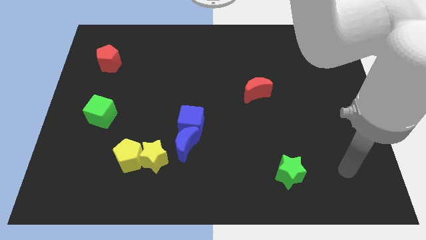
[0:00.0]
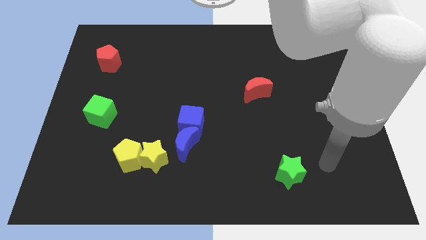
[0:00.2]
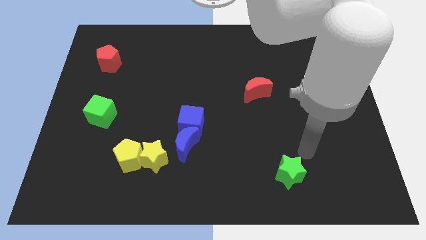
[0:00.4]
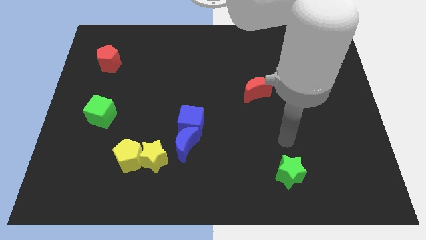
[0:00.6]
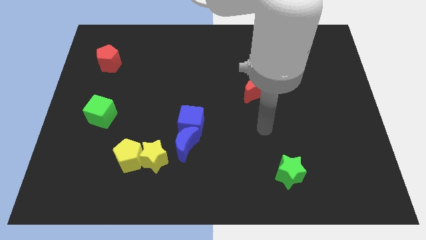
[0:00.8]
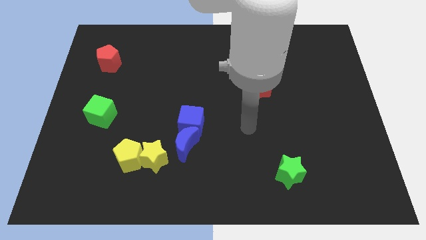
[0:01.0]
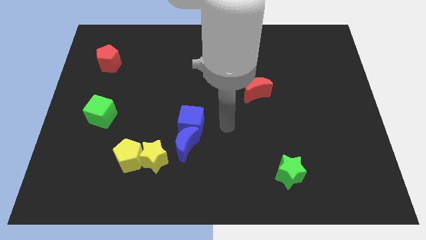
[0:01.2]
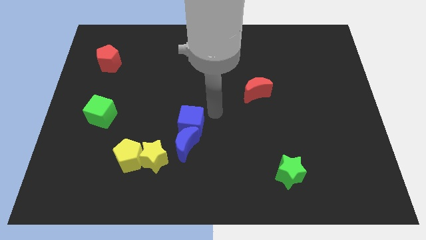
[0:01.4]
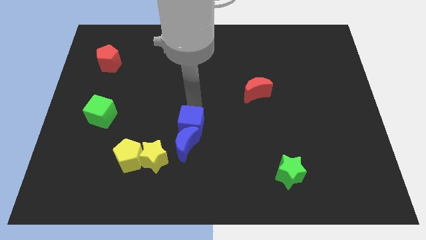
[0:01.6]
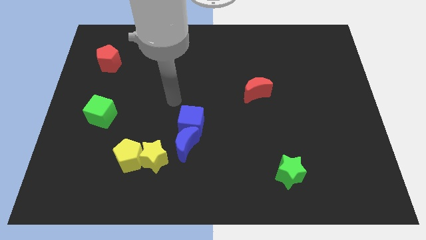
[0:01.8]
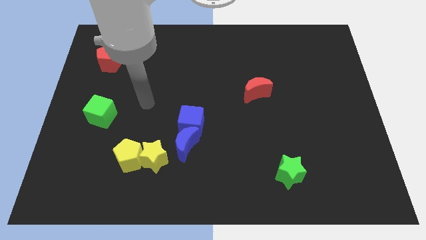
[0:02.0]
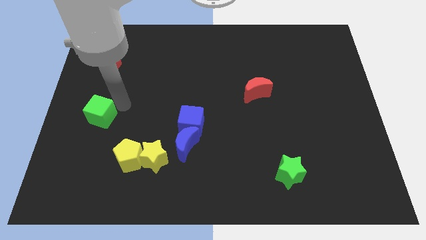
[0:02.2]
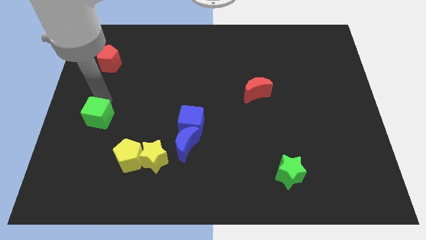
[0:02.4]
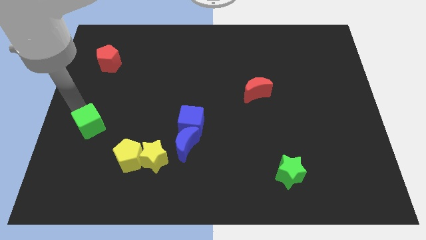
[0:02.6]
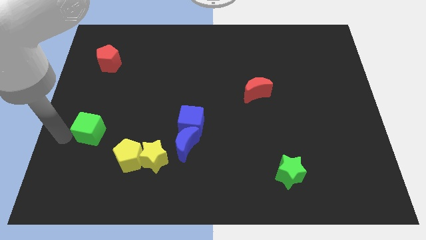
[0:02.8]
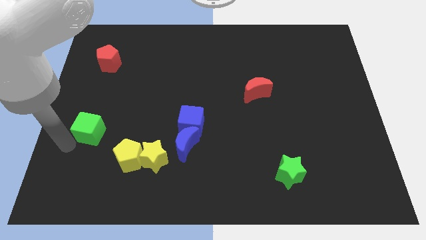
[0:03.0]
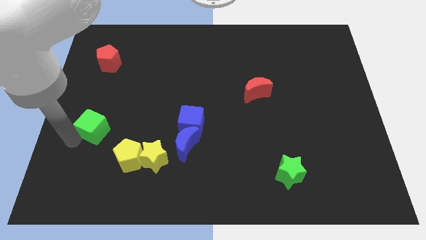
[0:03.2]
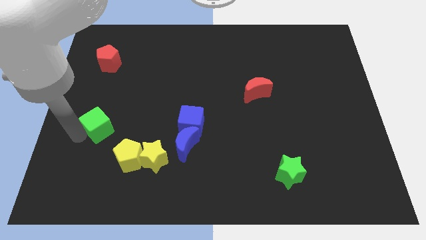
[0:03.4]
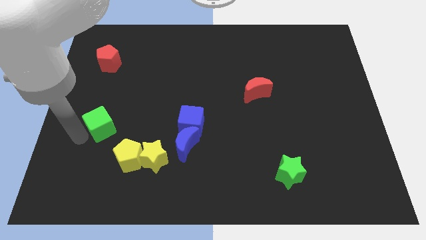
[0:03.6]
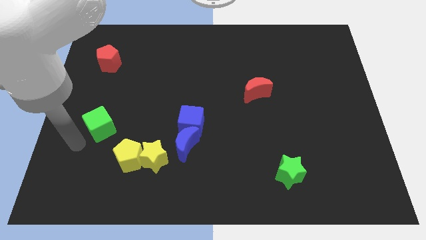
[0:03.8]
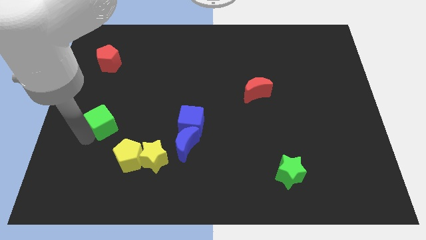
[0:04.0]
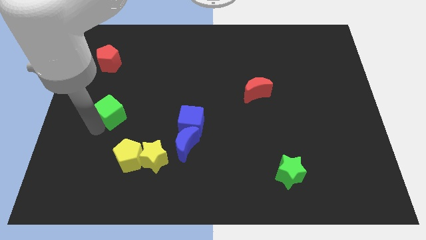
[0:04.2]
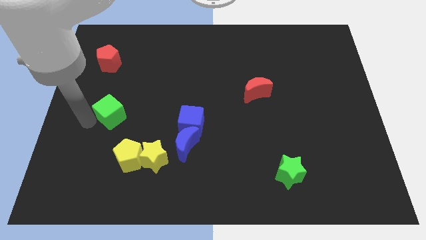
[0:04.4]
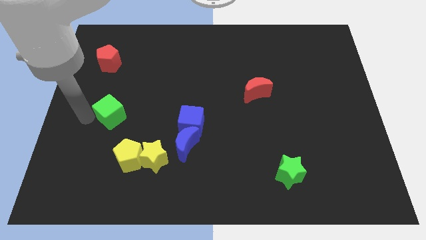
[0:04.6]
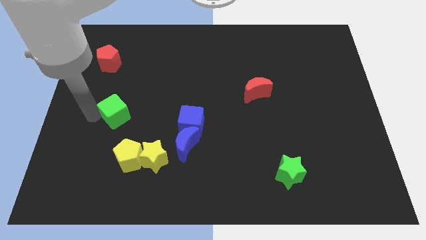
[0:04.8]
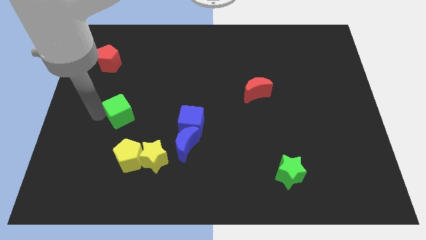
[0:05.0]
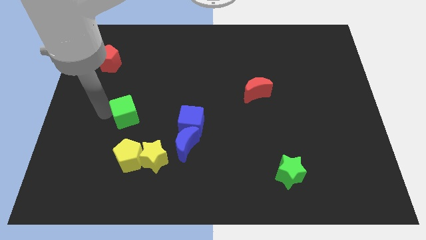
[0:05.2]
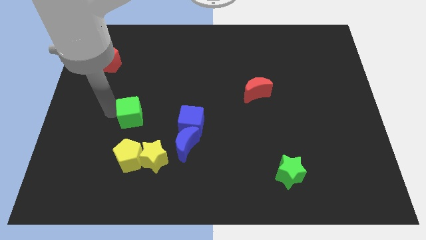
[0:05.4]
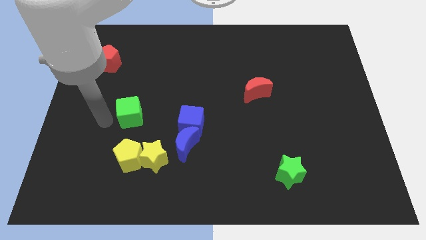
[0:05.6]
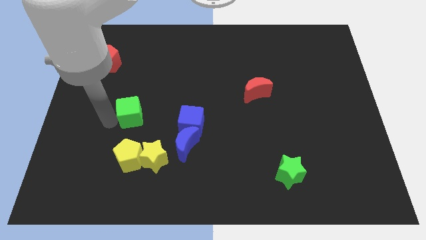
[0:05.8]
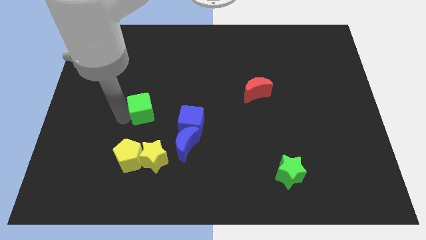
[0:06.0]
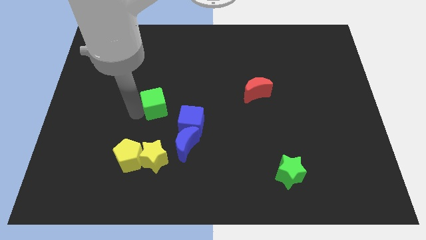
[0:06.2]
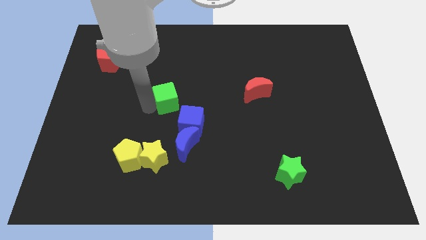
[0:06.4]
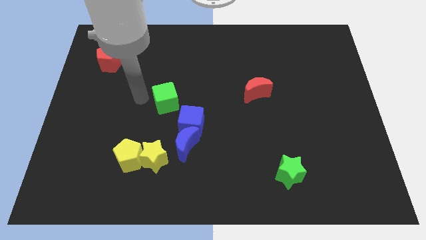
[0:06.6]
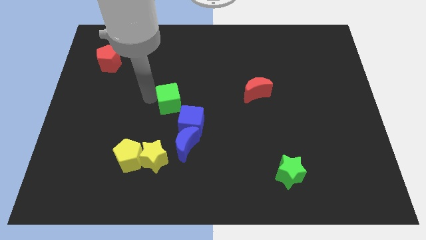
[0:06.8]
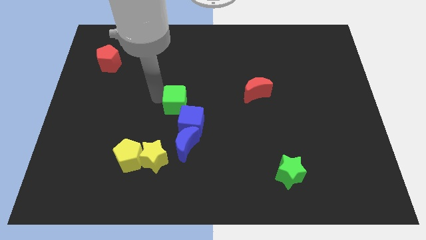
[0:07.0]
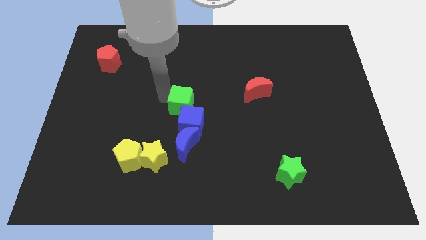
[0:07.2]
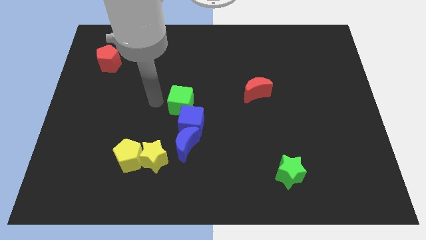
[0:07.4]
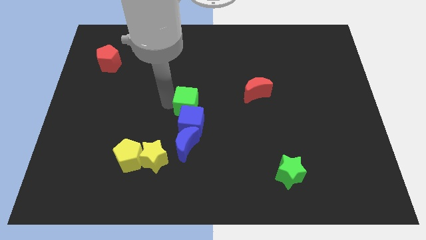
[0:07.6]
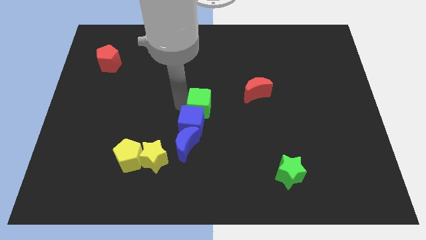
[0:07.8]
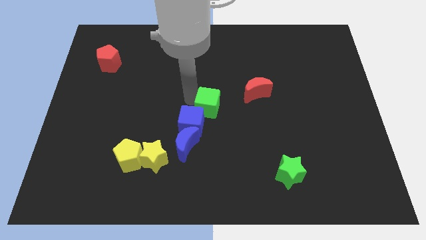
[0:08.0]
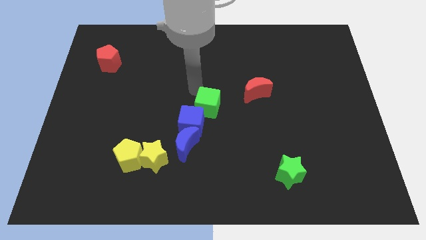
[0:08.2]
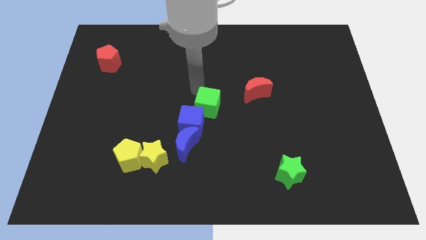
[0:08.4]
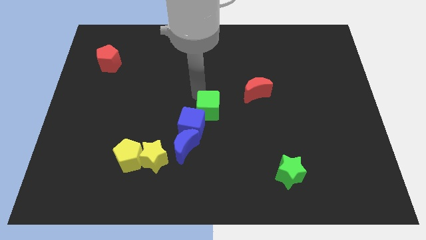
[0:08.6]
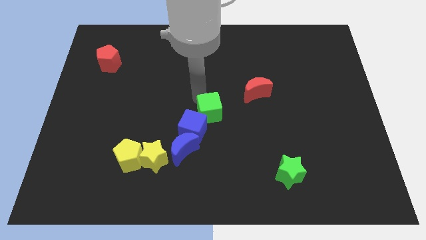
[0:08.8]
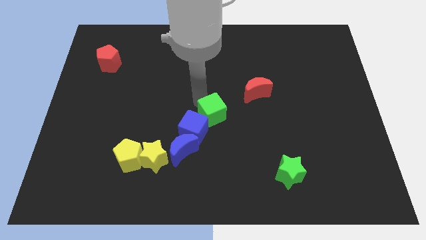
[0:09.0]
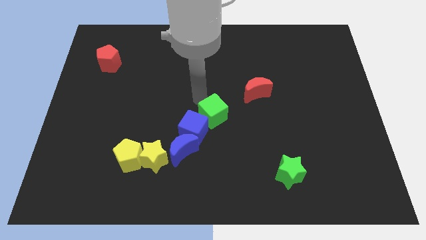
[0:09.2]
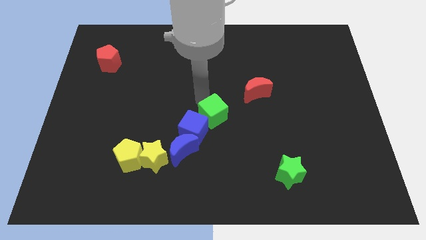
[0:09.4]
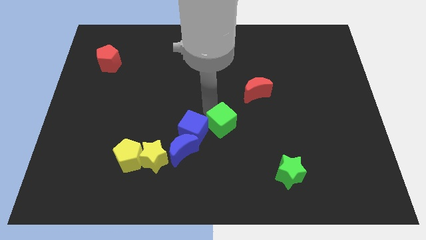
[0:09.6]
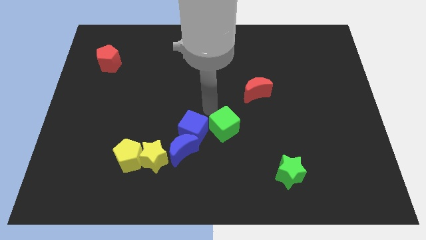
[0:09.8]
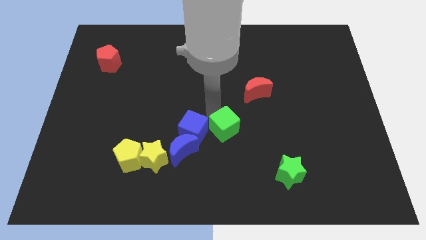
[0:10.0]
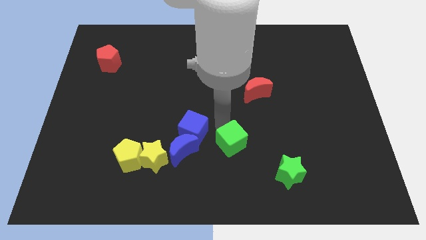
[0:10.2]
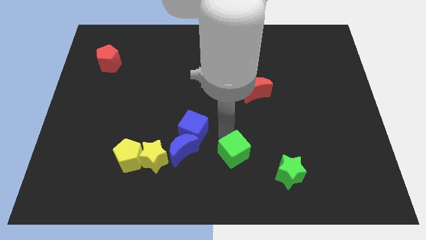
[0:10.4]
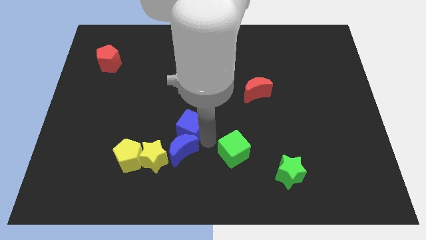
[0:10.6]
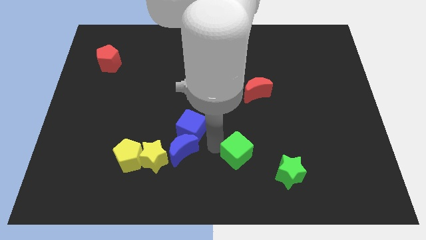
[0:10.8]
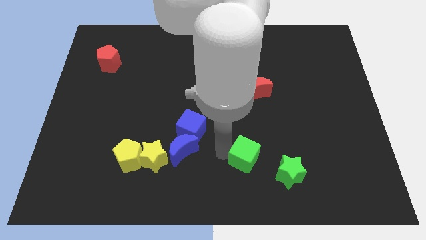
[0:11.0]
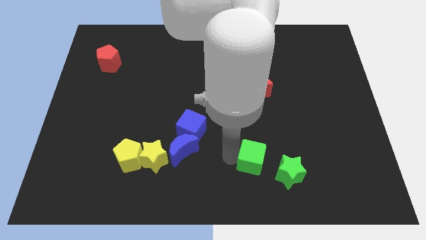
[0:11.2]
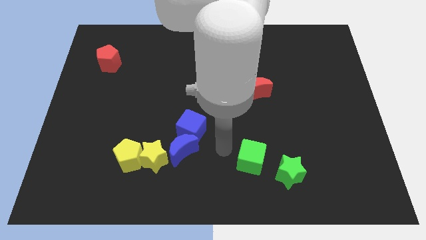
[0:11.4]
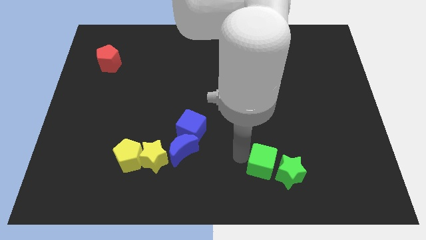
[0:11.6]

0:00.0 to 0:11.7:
put the green cube to the green star

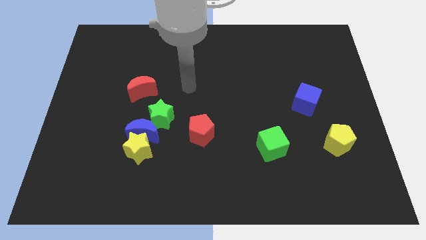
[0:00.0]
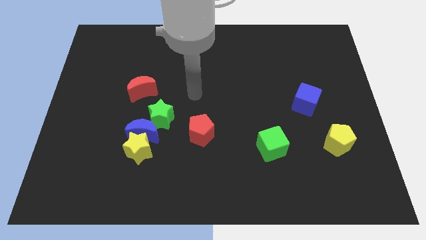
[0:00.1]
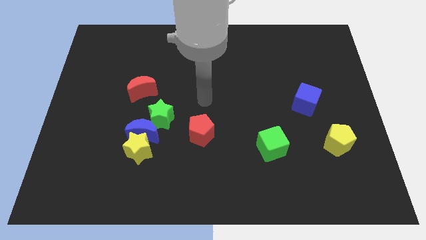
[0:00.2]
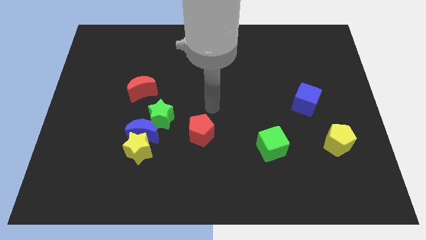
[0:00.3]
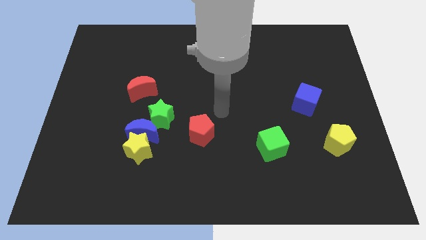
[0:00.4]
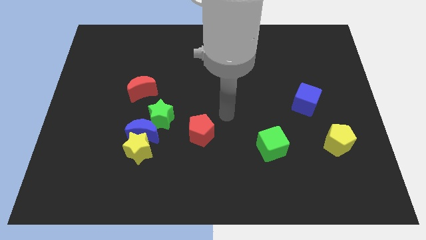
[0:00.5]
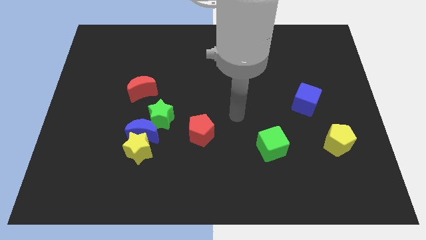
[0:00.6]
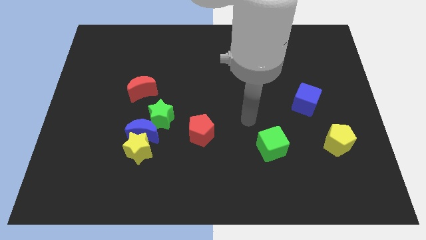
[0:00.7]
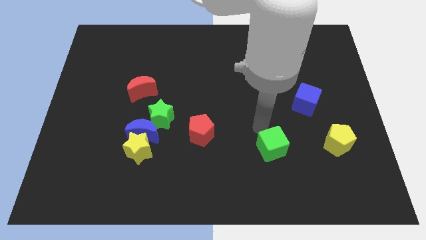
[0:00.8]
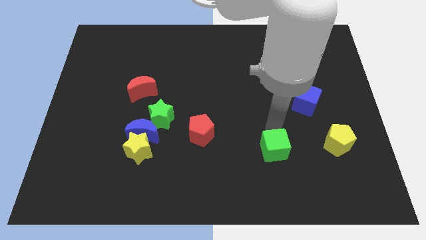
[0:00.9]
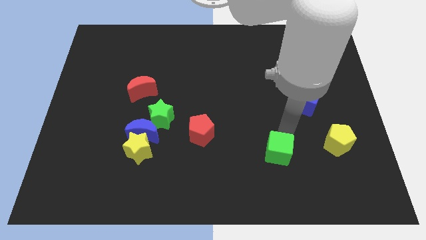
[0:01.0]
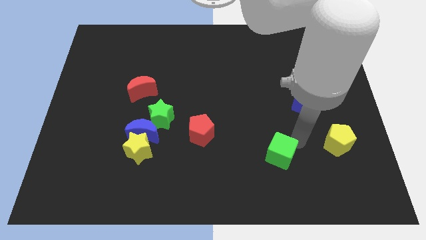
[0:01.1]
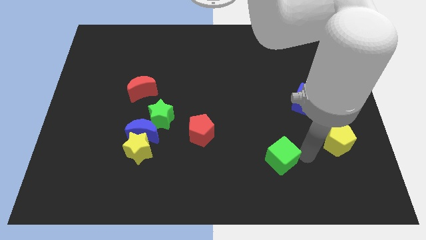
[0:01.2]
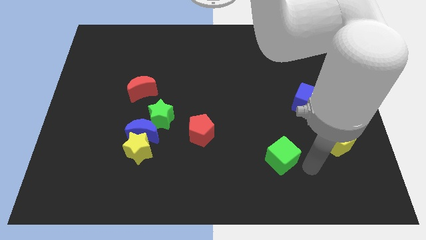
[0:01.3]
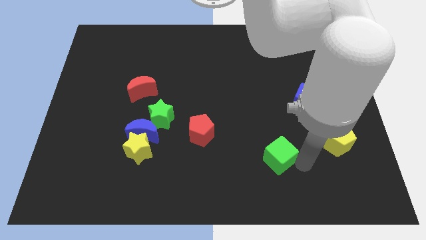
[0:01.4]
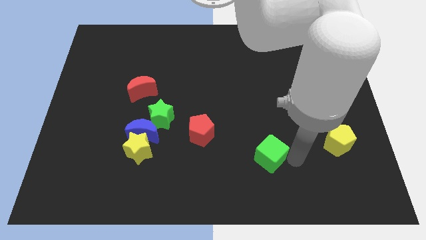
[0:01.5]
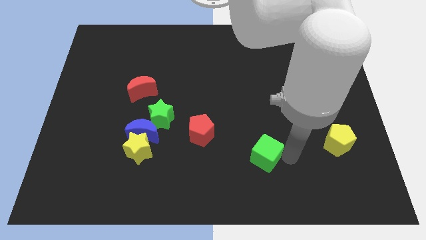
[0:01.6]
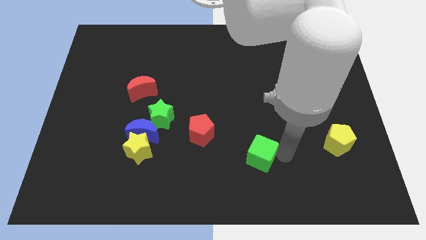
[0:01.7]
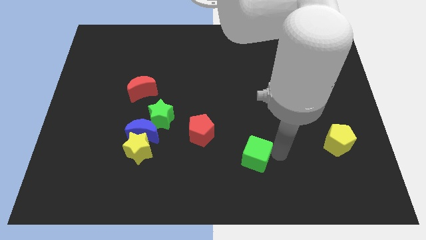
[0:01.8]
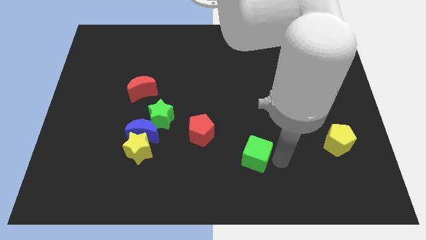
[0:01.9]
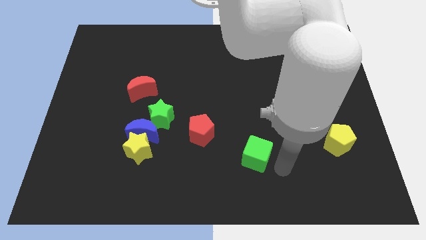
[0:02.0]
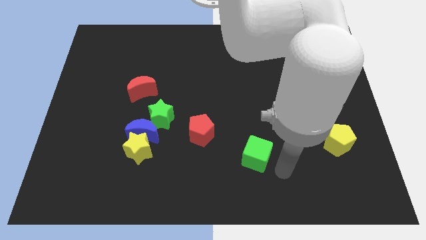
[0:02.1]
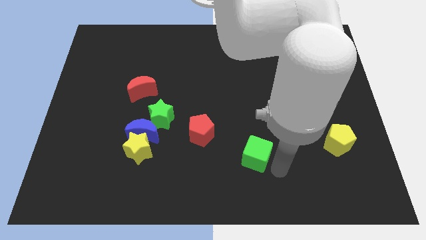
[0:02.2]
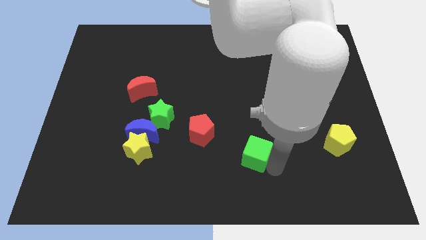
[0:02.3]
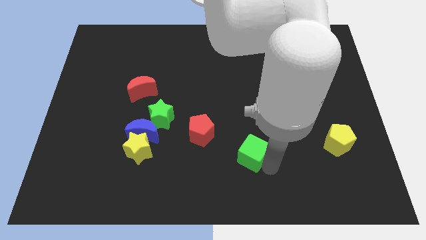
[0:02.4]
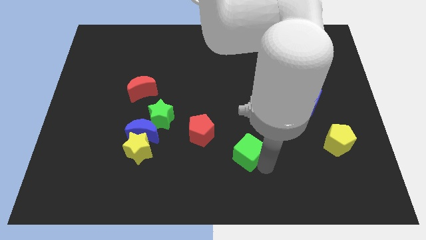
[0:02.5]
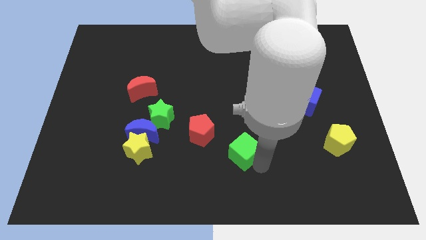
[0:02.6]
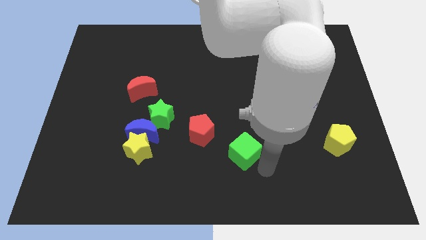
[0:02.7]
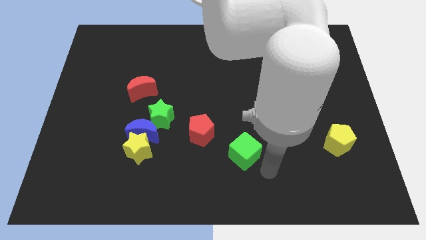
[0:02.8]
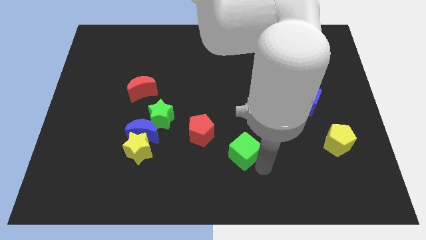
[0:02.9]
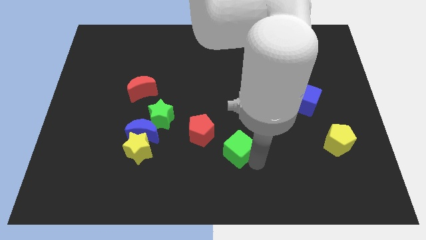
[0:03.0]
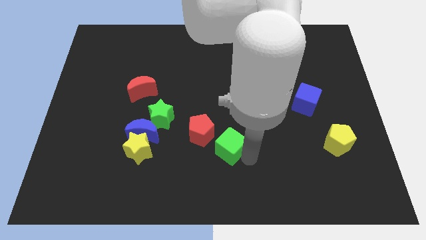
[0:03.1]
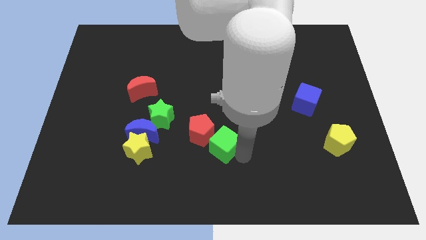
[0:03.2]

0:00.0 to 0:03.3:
push the green cube towards the red pentagon
